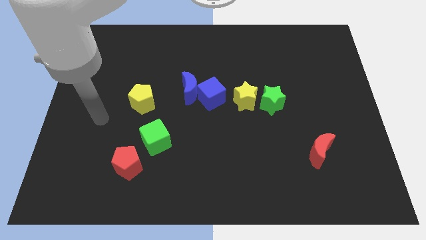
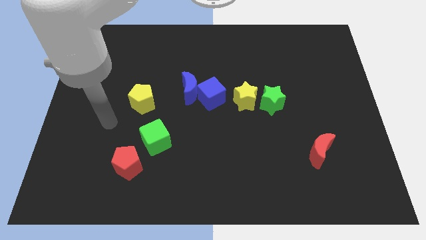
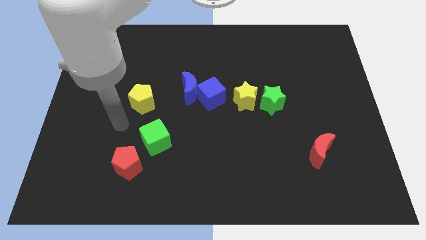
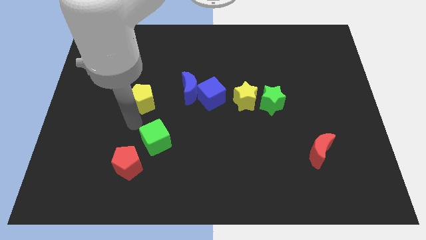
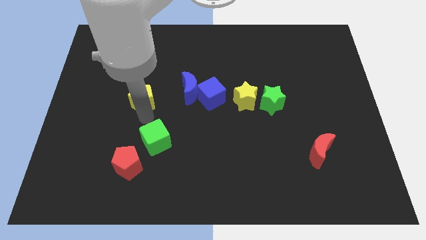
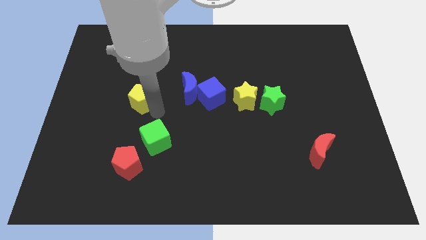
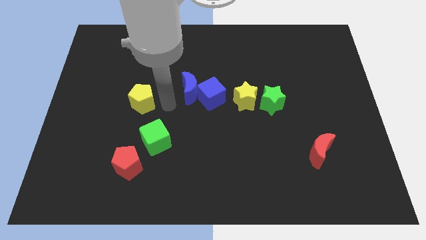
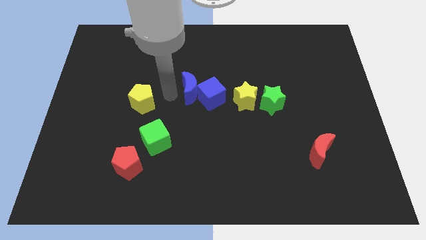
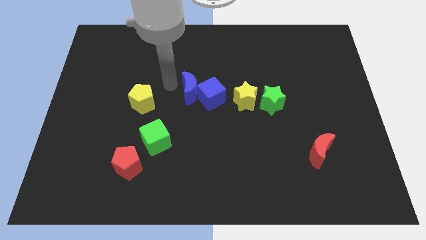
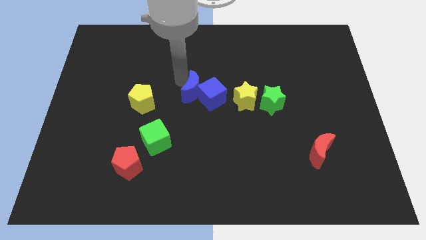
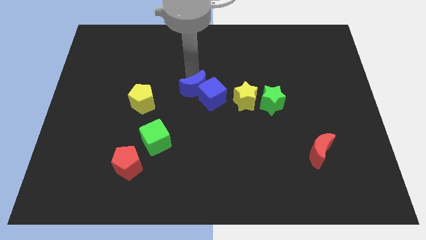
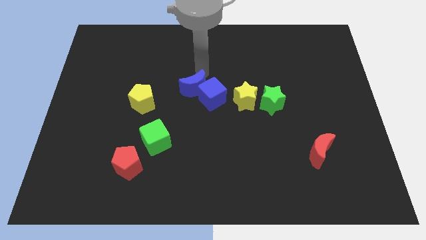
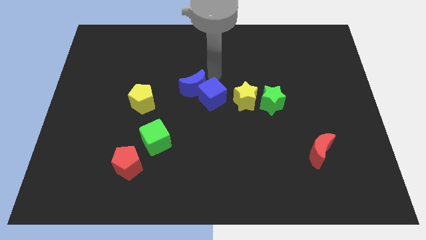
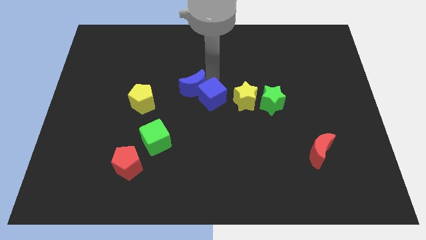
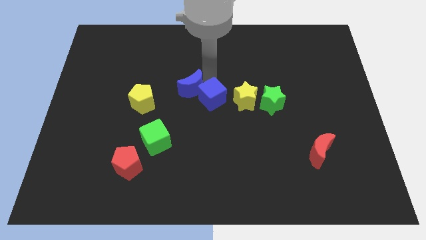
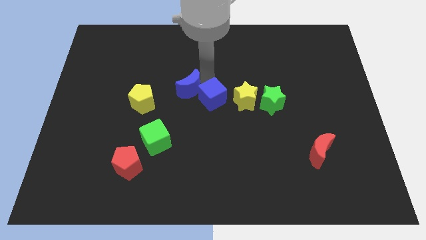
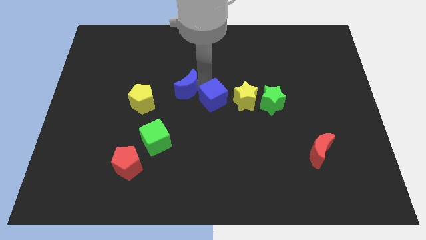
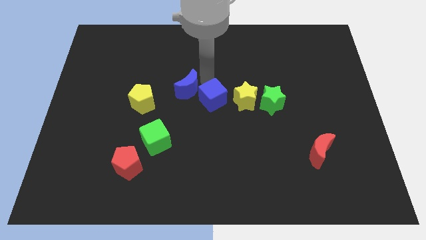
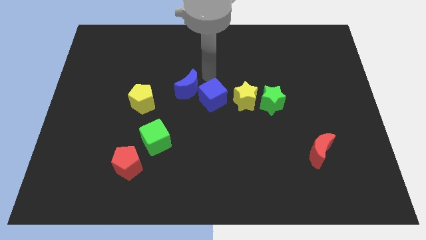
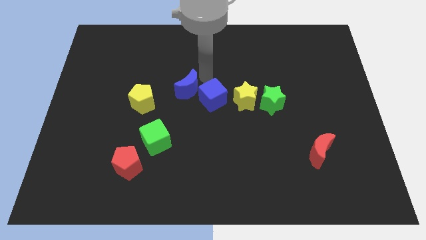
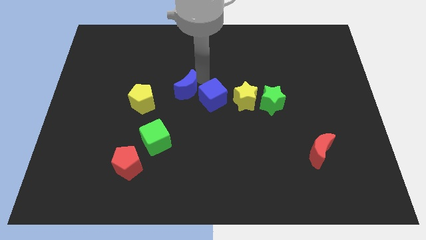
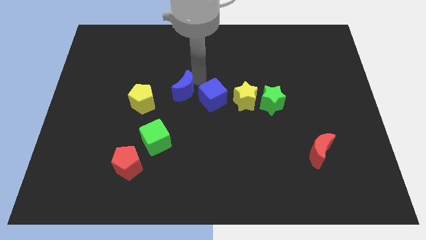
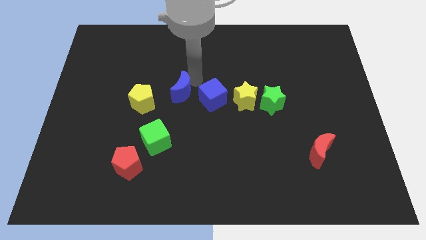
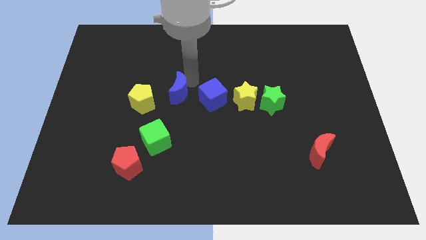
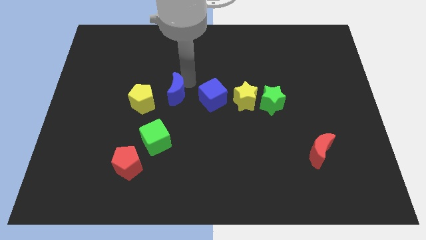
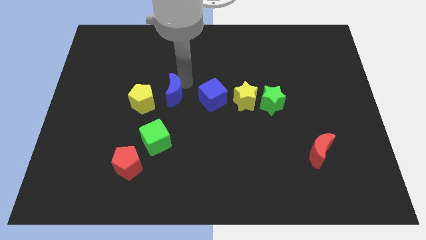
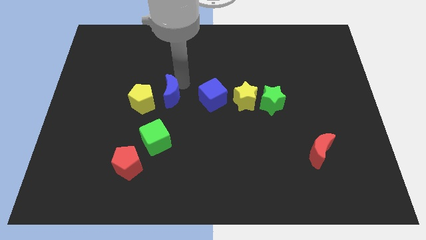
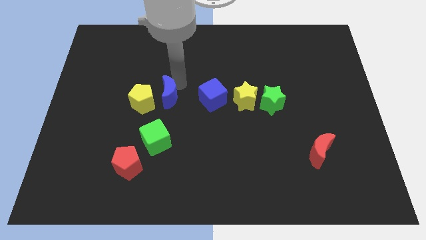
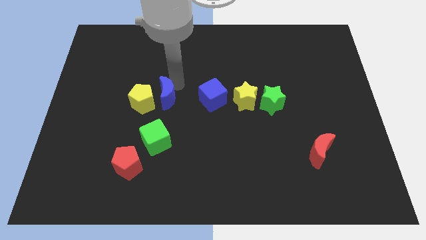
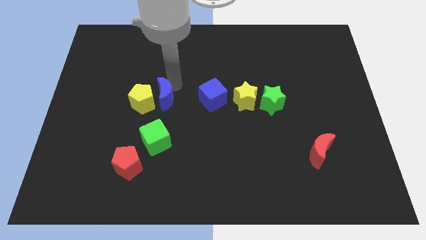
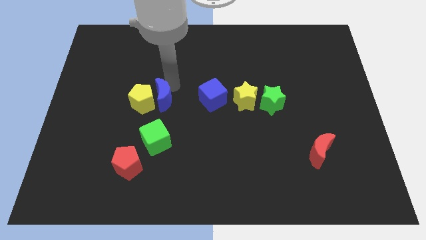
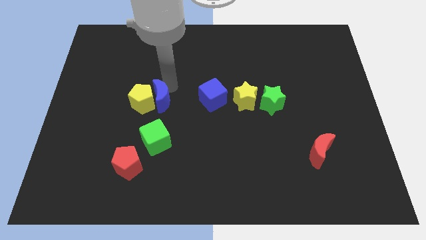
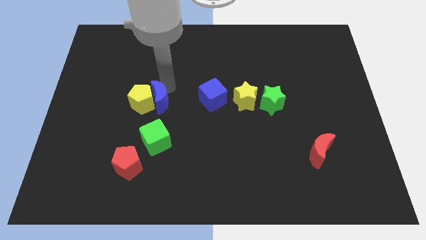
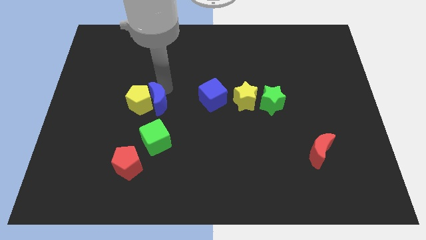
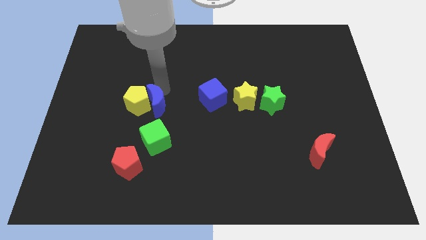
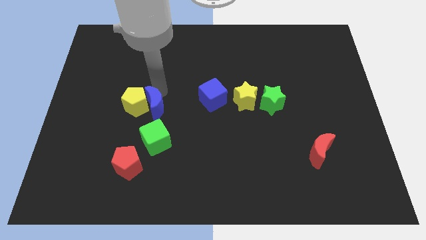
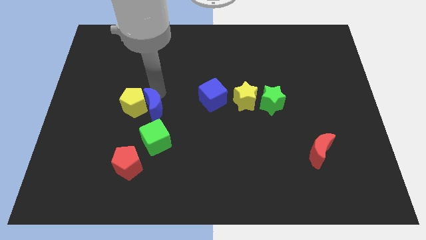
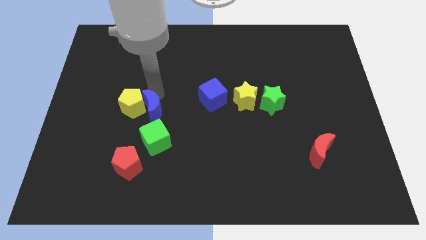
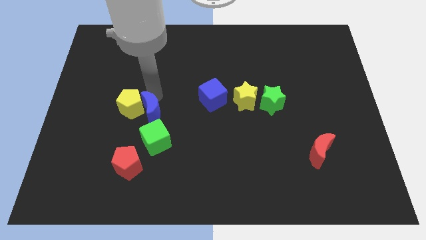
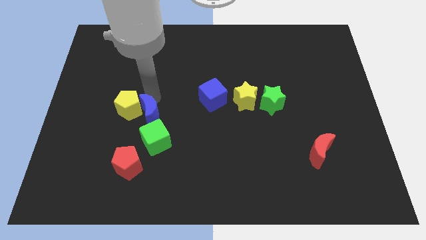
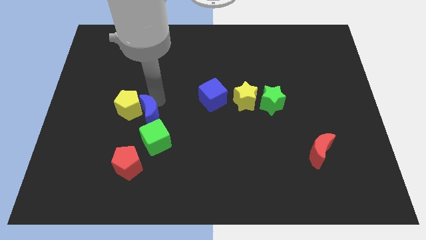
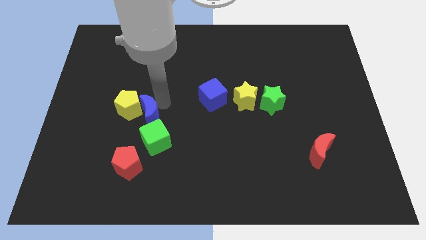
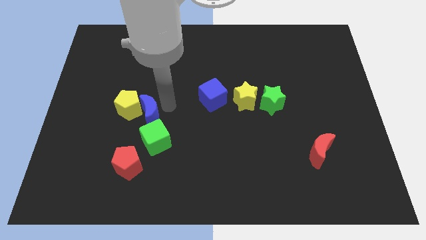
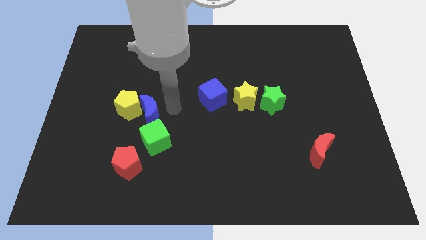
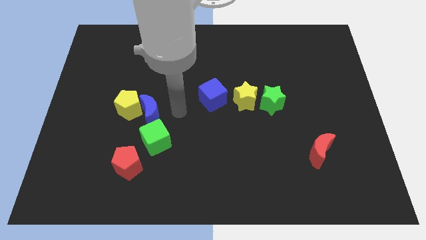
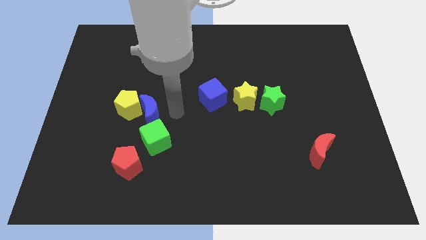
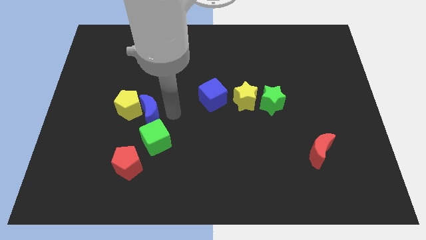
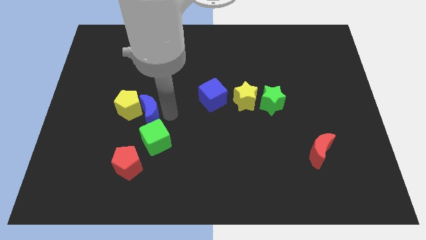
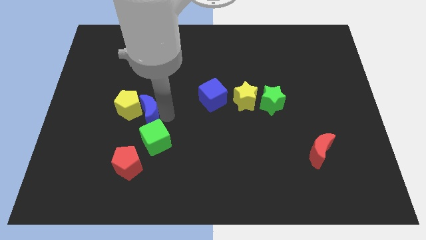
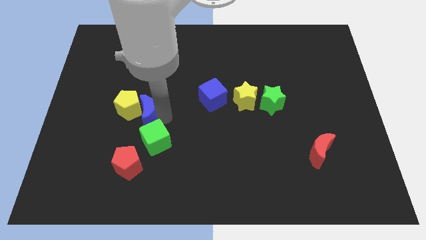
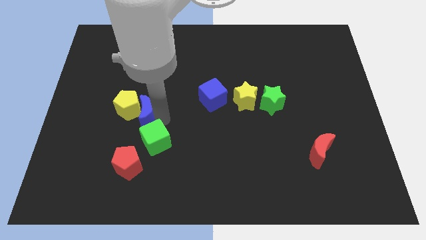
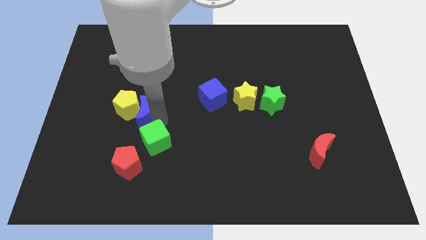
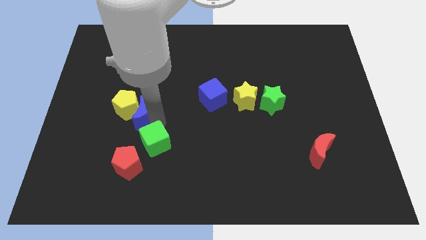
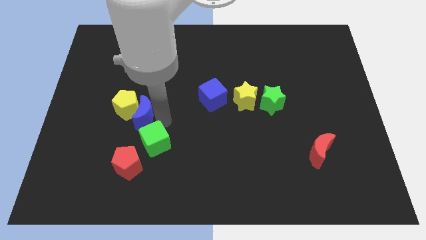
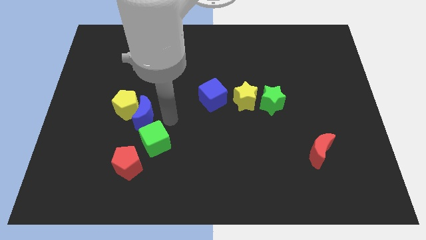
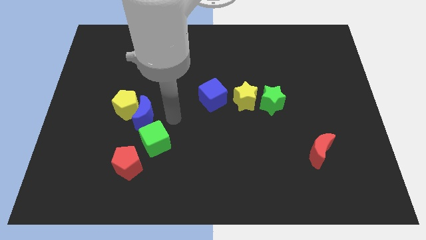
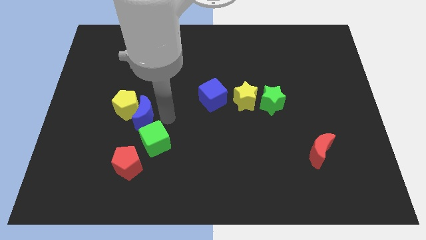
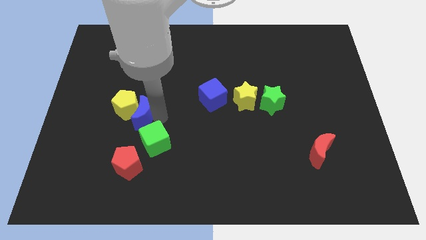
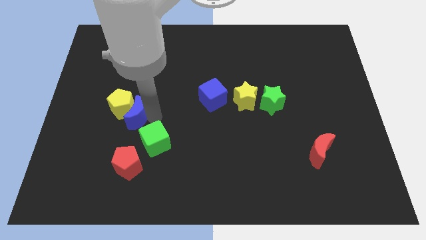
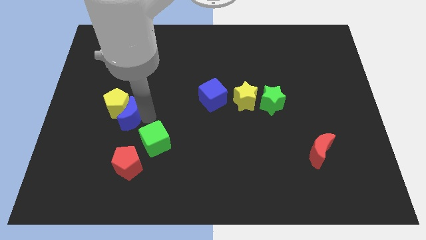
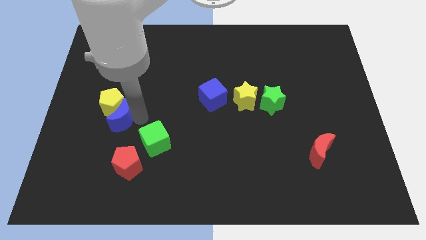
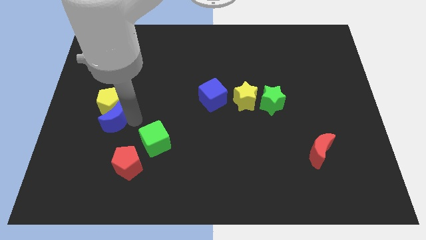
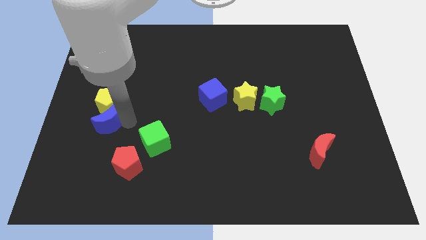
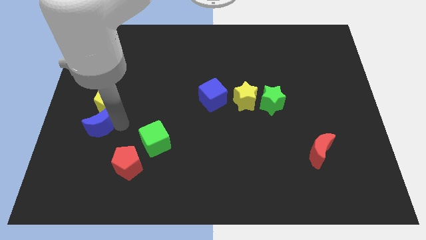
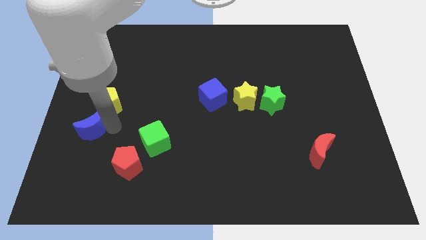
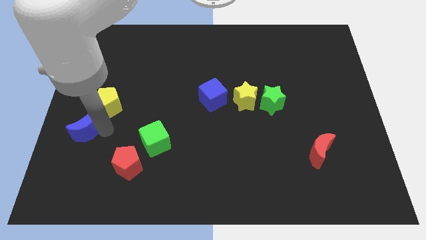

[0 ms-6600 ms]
slide the blue moon to the left side
